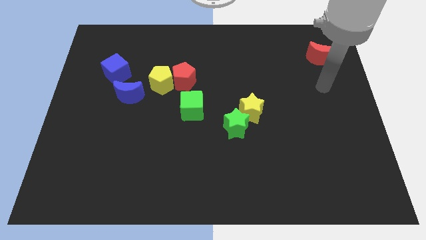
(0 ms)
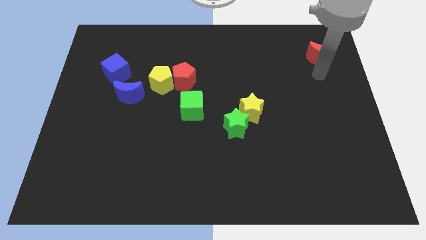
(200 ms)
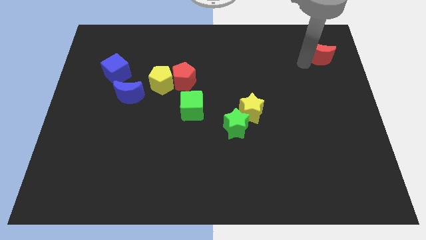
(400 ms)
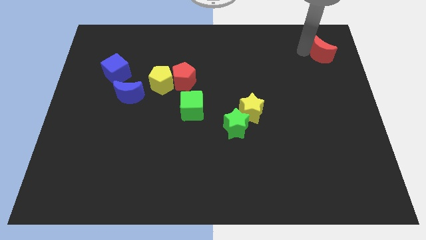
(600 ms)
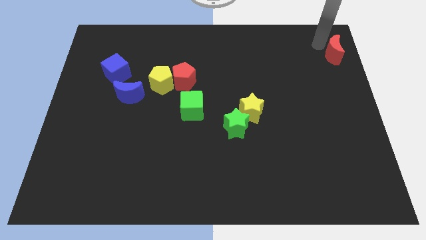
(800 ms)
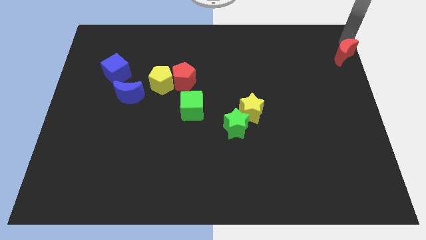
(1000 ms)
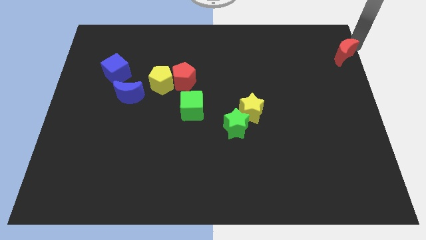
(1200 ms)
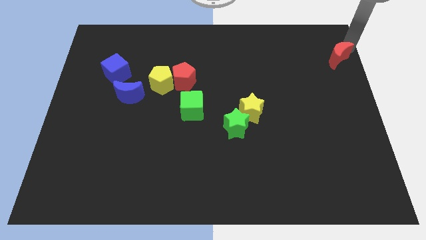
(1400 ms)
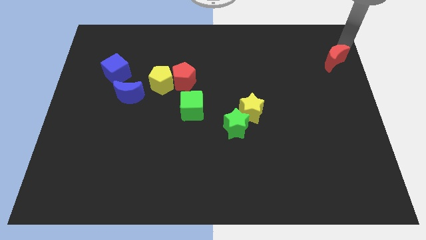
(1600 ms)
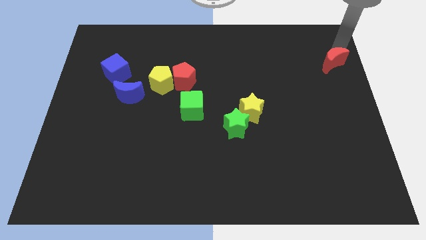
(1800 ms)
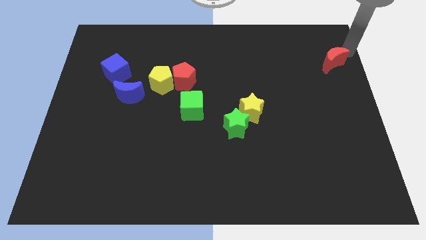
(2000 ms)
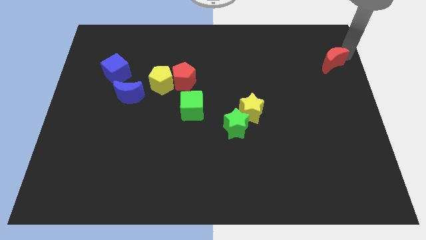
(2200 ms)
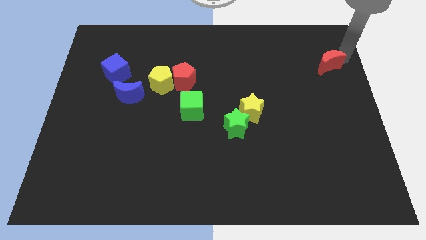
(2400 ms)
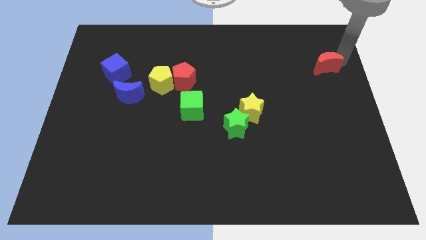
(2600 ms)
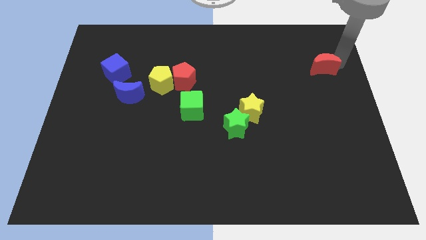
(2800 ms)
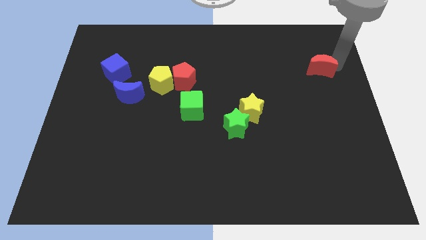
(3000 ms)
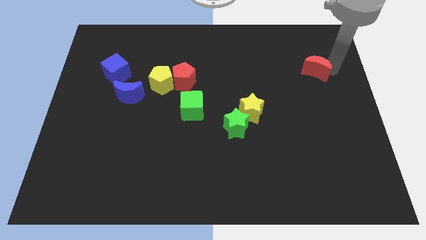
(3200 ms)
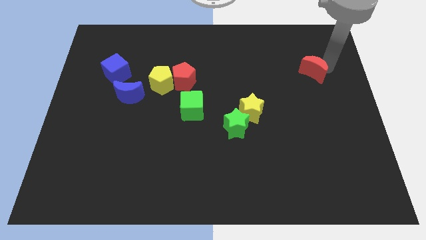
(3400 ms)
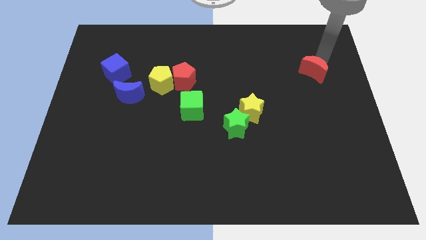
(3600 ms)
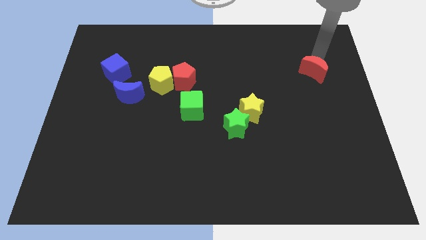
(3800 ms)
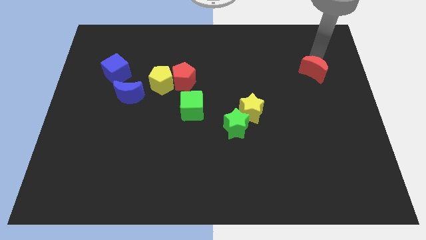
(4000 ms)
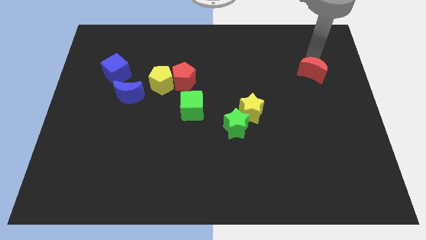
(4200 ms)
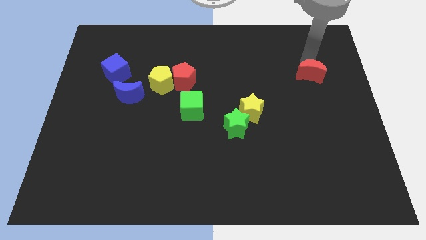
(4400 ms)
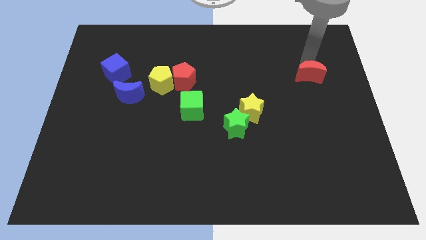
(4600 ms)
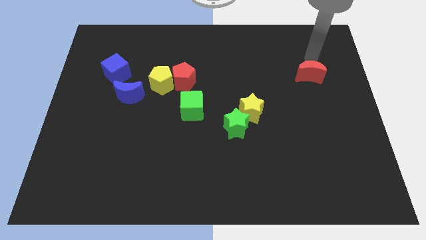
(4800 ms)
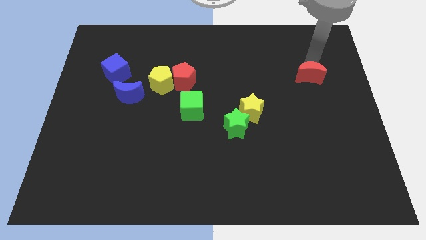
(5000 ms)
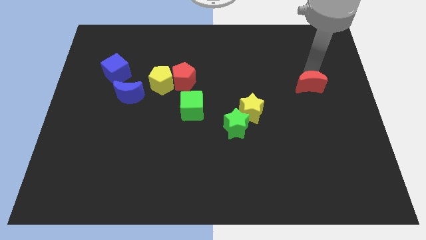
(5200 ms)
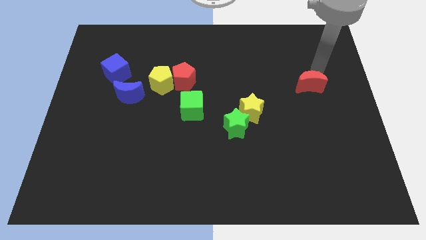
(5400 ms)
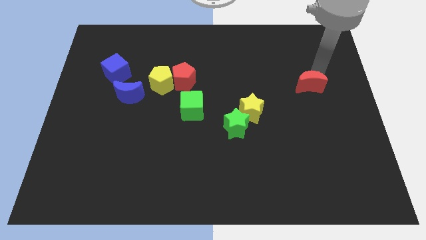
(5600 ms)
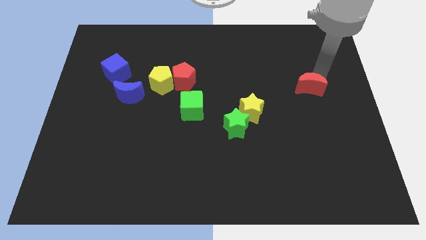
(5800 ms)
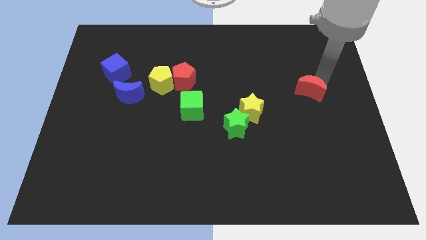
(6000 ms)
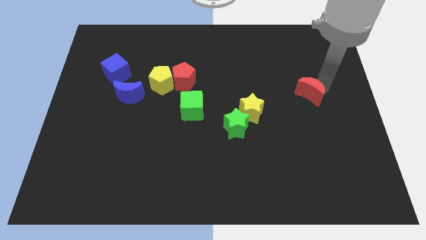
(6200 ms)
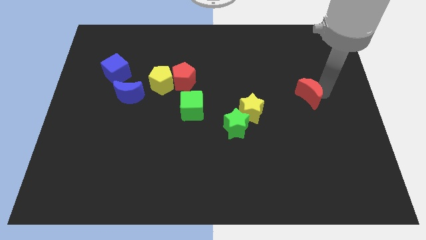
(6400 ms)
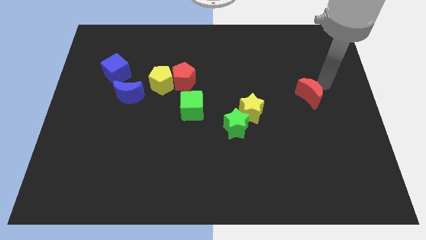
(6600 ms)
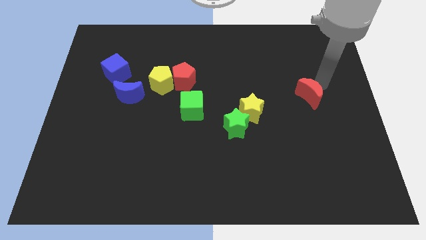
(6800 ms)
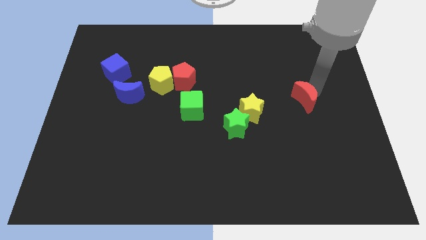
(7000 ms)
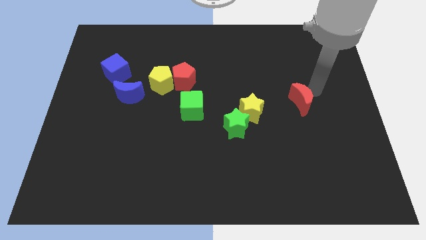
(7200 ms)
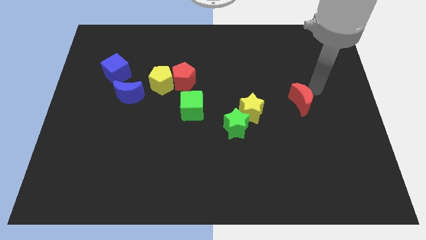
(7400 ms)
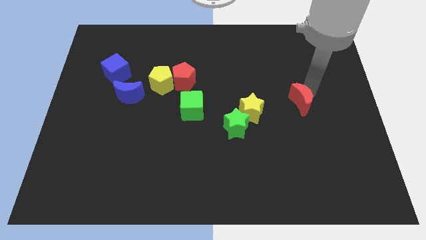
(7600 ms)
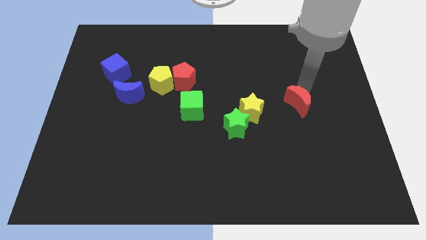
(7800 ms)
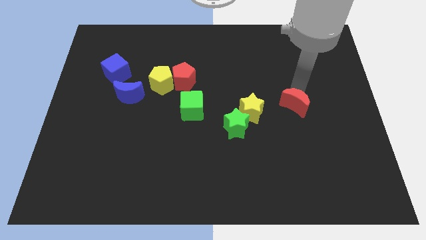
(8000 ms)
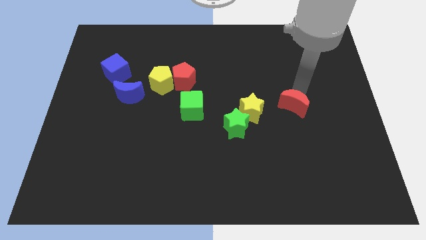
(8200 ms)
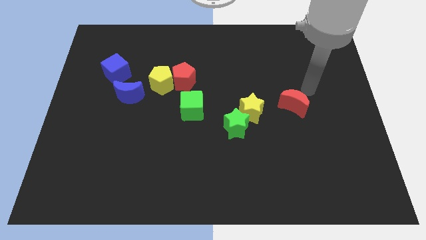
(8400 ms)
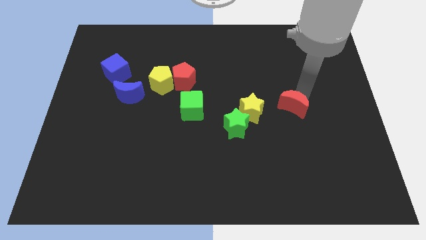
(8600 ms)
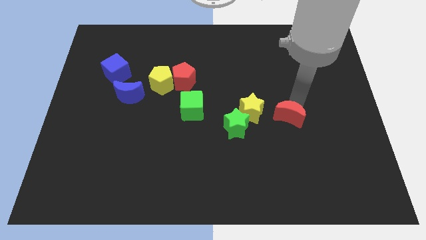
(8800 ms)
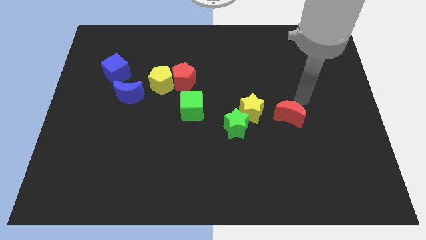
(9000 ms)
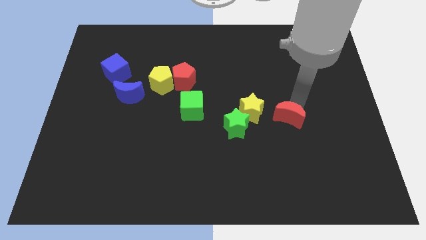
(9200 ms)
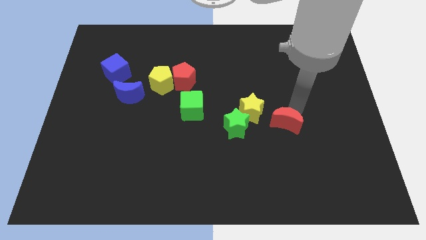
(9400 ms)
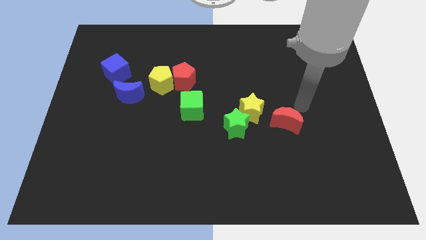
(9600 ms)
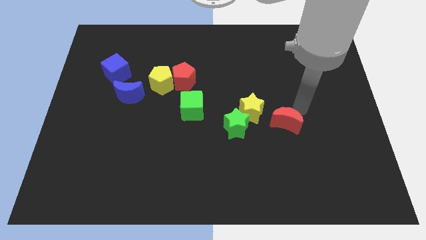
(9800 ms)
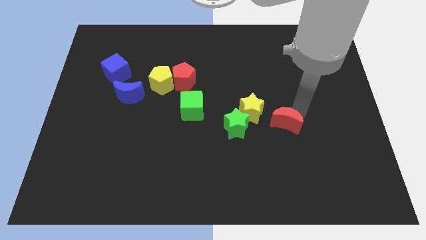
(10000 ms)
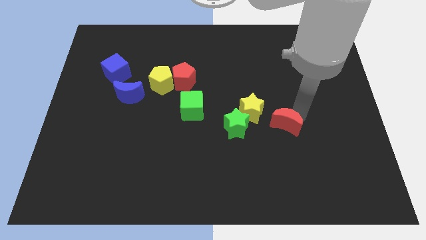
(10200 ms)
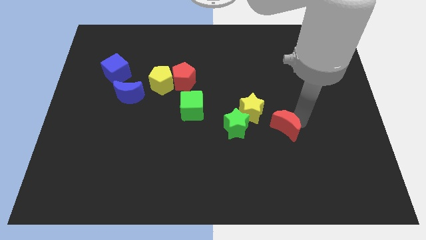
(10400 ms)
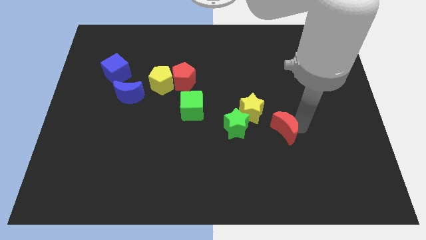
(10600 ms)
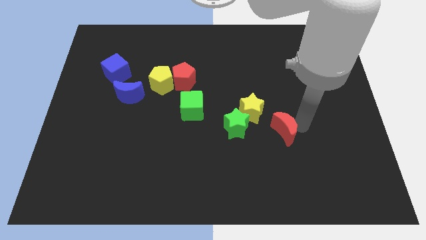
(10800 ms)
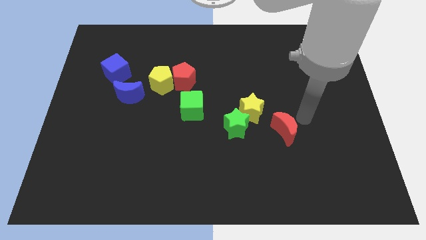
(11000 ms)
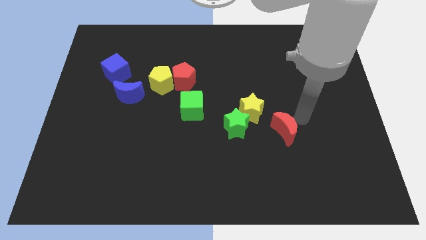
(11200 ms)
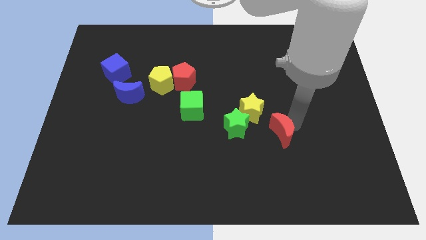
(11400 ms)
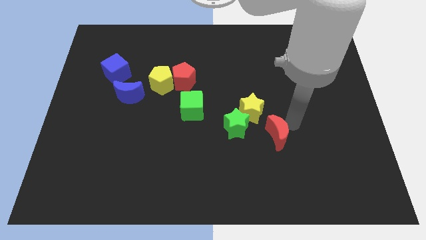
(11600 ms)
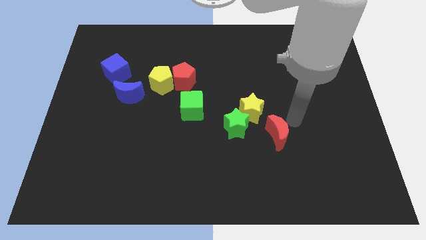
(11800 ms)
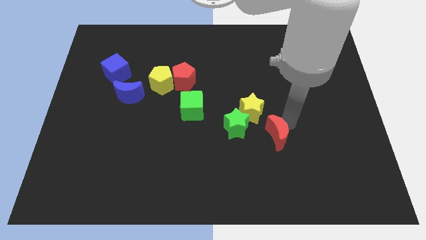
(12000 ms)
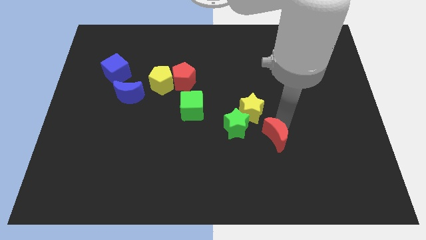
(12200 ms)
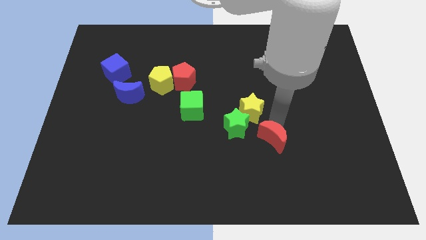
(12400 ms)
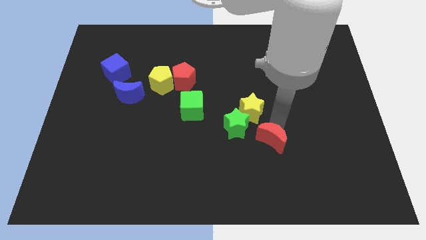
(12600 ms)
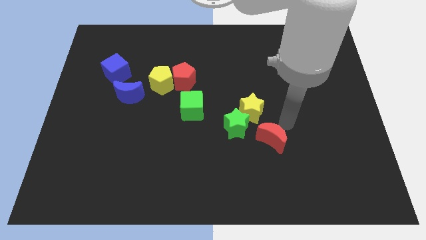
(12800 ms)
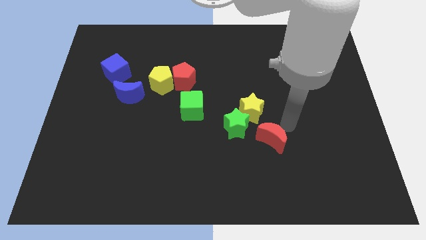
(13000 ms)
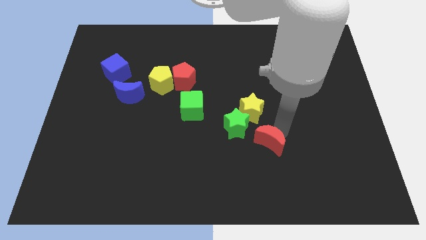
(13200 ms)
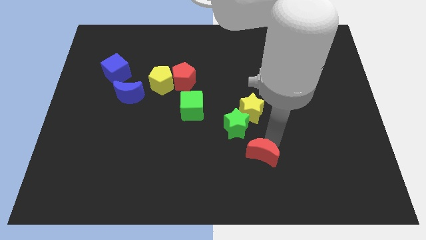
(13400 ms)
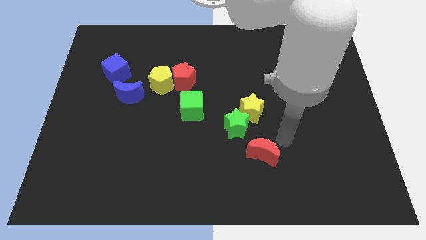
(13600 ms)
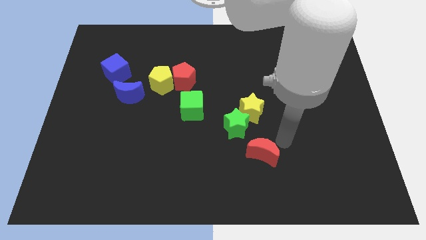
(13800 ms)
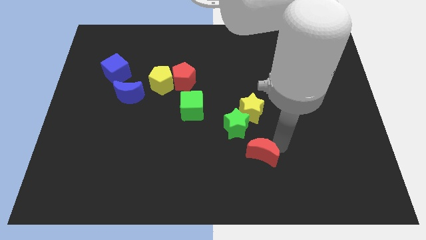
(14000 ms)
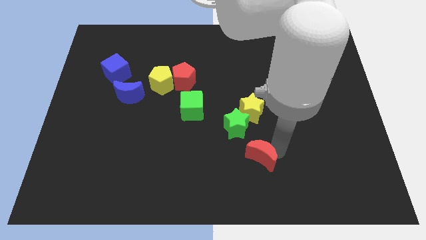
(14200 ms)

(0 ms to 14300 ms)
push the red moon to the bottom side of the green star

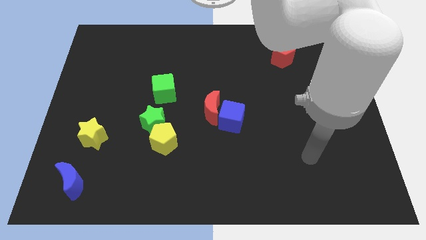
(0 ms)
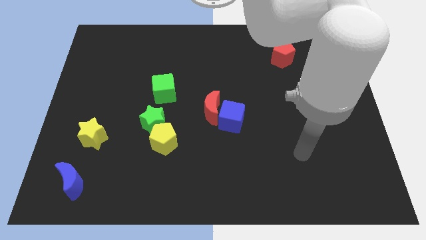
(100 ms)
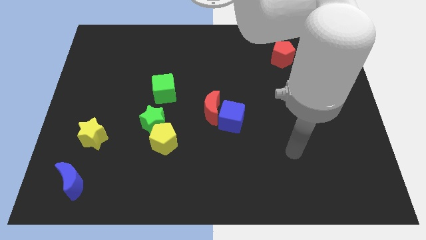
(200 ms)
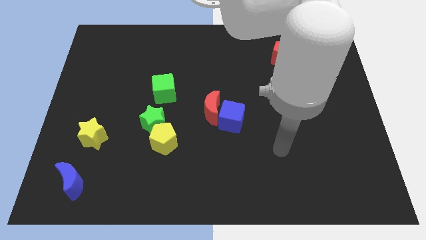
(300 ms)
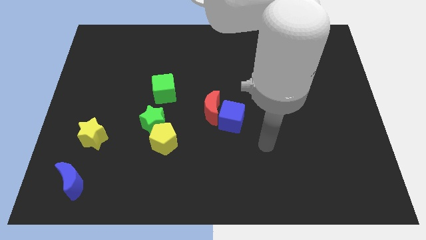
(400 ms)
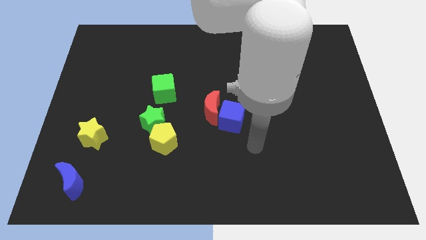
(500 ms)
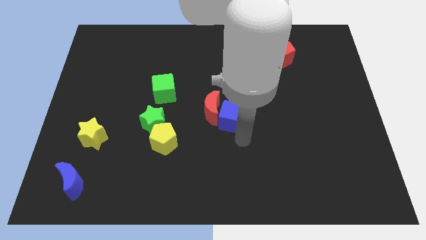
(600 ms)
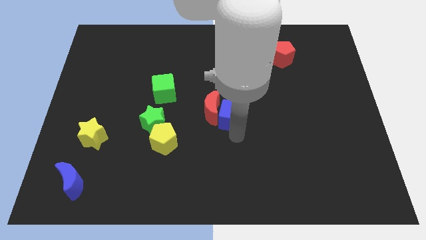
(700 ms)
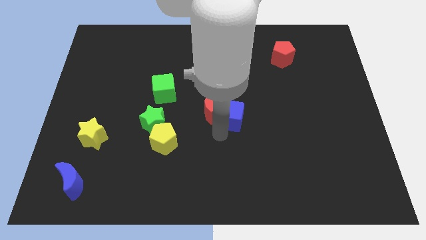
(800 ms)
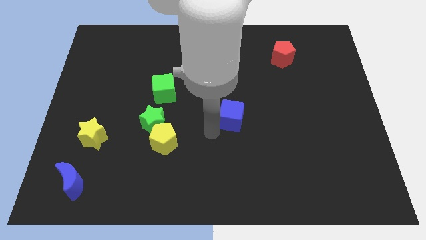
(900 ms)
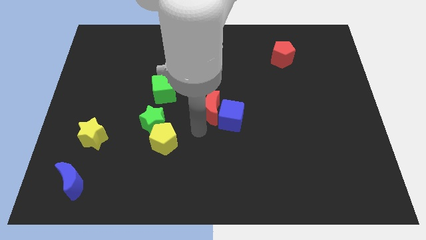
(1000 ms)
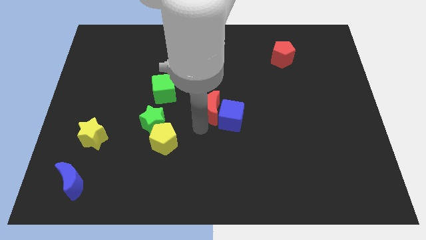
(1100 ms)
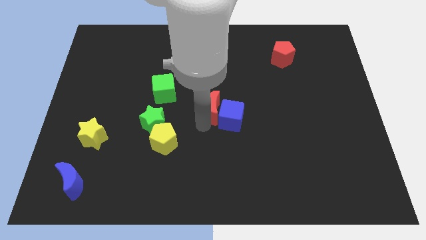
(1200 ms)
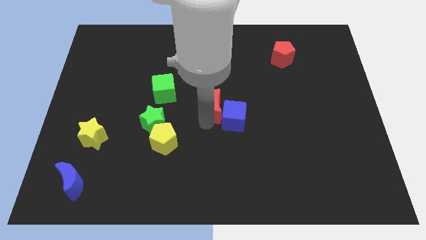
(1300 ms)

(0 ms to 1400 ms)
move the red moon to the top of the blue cube
